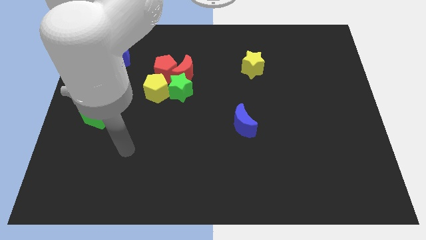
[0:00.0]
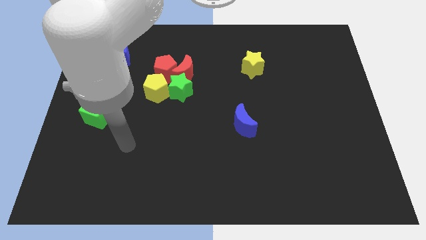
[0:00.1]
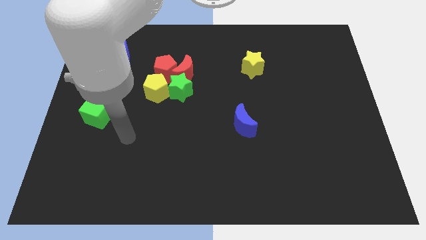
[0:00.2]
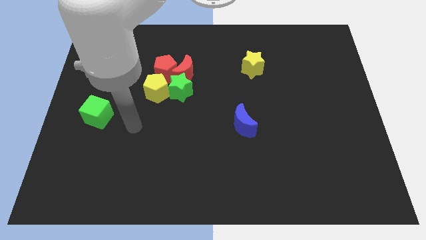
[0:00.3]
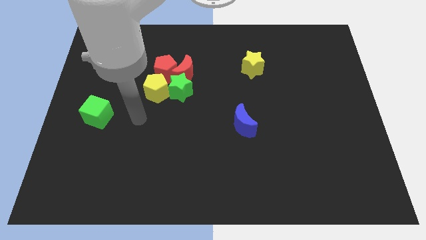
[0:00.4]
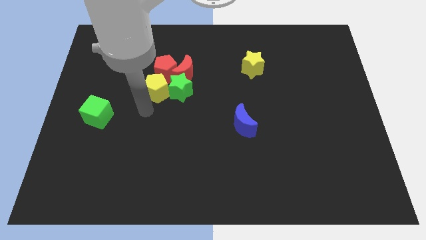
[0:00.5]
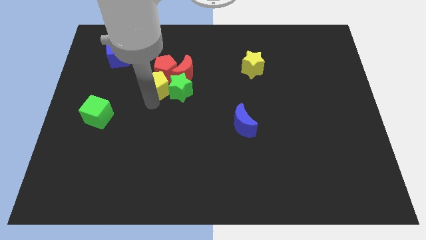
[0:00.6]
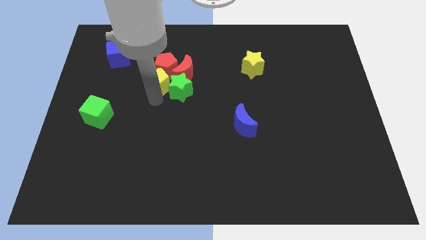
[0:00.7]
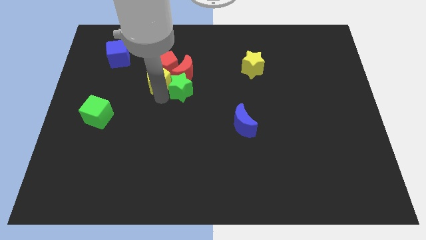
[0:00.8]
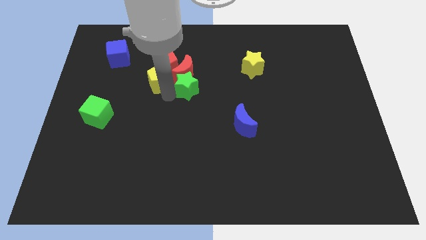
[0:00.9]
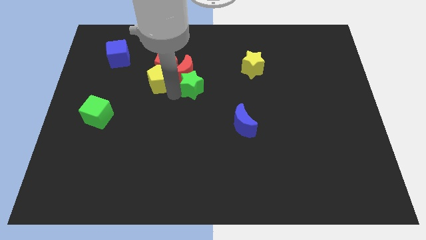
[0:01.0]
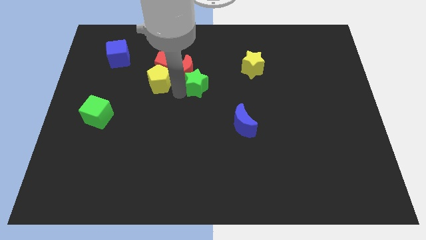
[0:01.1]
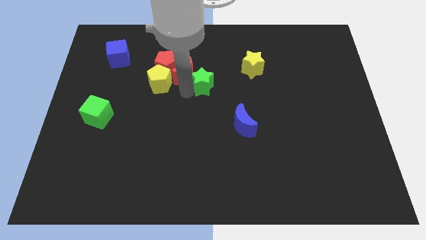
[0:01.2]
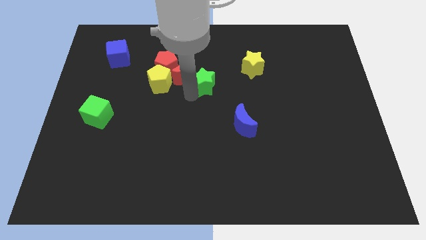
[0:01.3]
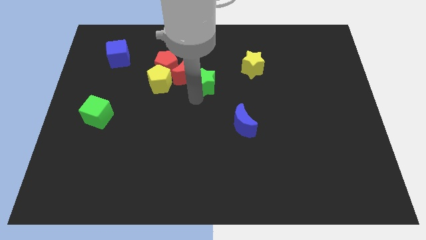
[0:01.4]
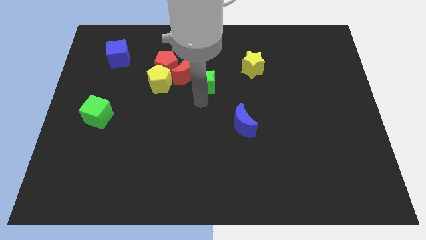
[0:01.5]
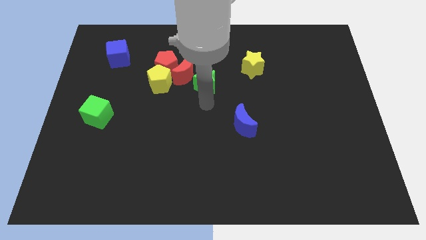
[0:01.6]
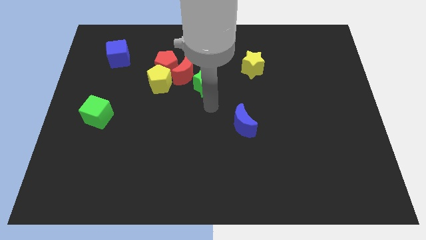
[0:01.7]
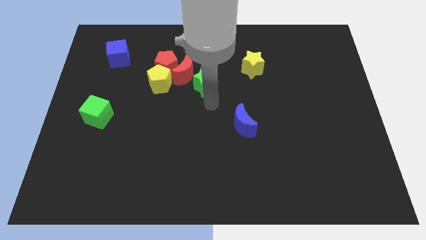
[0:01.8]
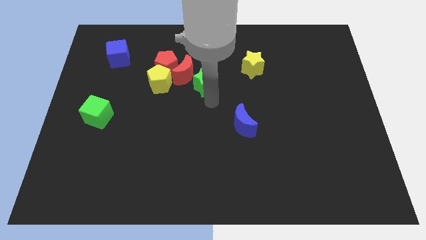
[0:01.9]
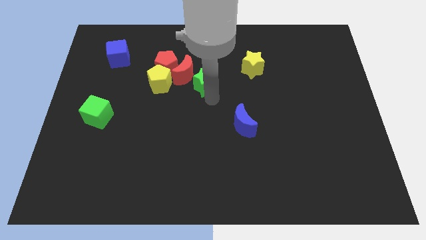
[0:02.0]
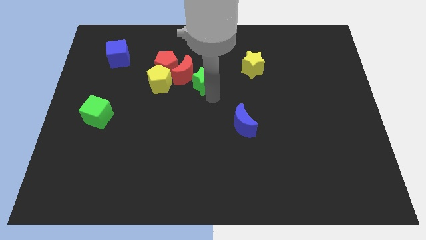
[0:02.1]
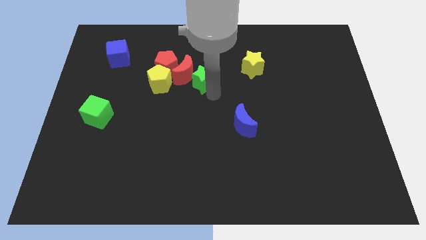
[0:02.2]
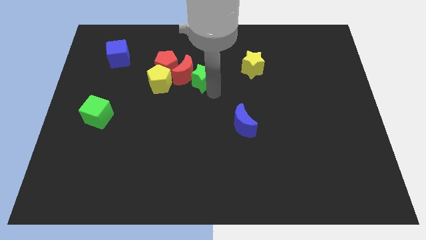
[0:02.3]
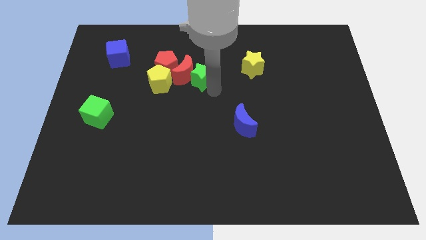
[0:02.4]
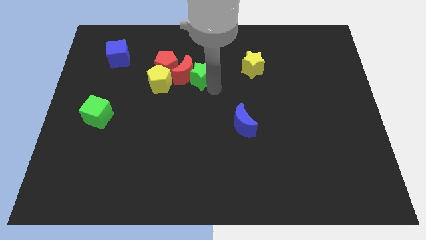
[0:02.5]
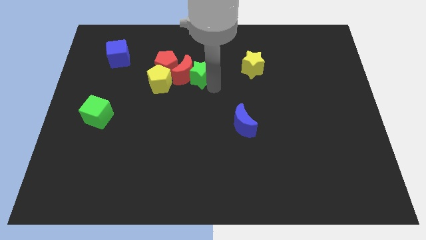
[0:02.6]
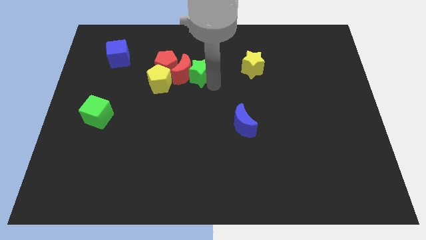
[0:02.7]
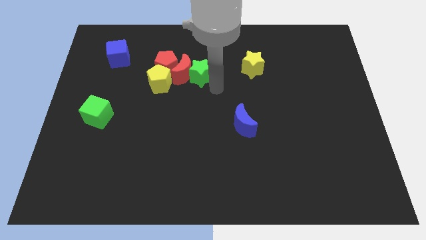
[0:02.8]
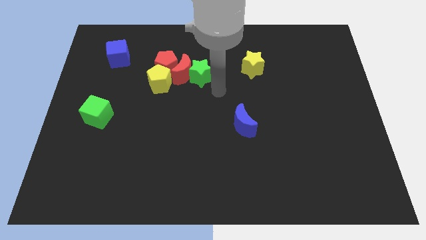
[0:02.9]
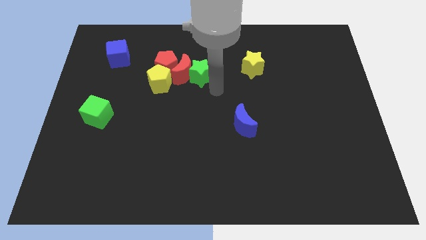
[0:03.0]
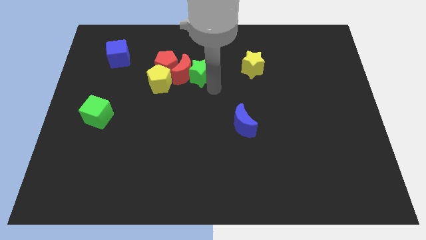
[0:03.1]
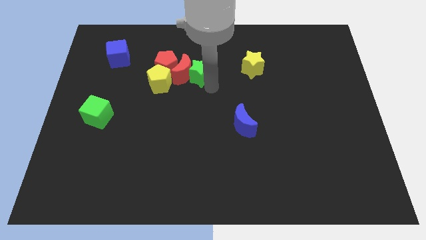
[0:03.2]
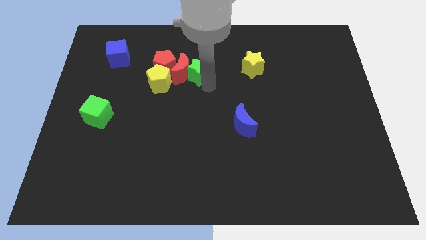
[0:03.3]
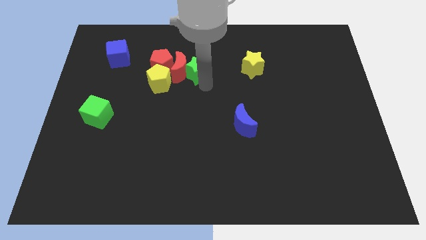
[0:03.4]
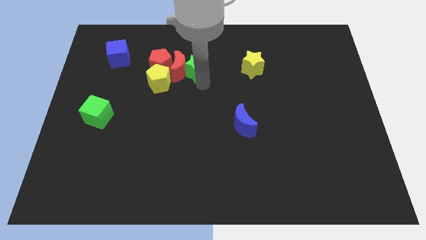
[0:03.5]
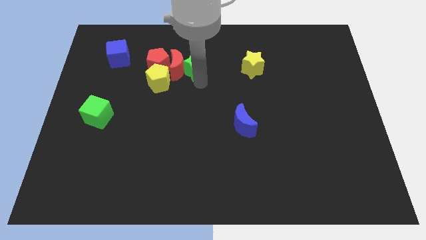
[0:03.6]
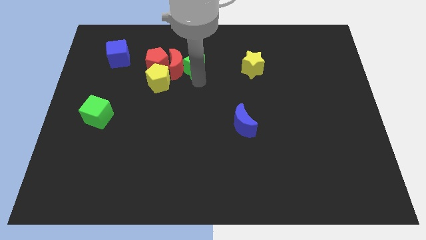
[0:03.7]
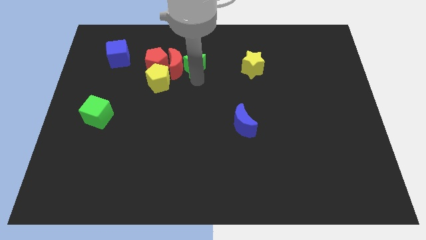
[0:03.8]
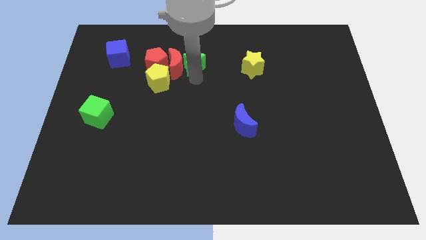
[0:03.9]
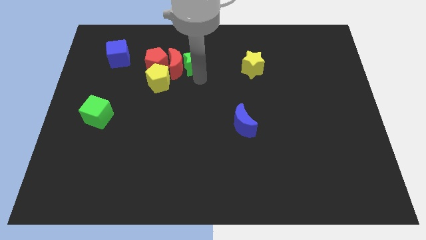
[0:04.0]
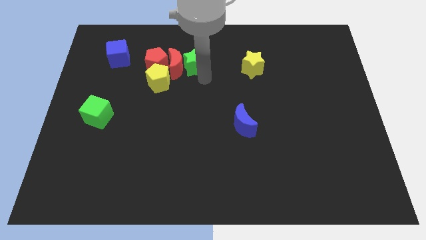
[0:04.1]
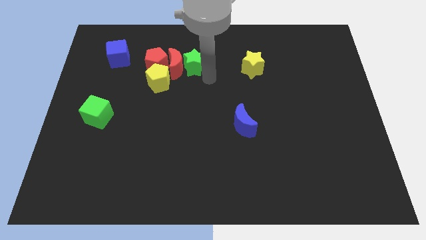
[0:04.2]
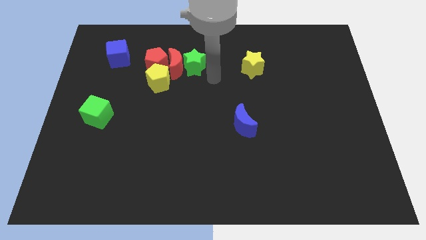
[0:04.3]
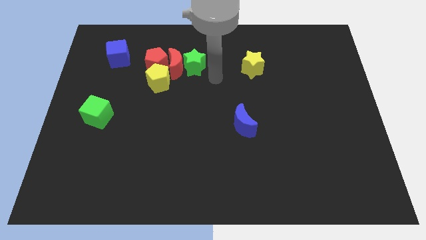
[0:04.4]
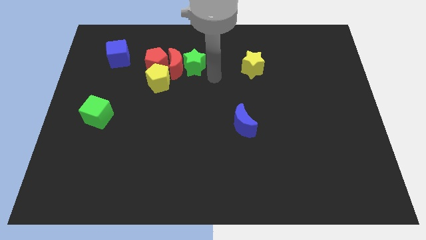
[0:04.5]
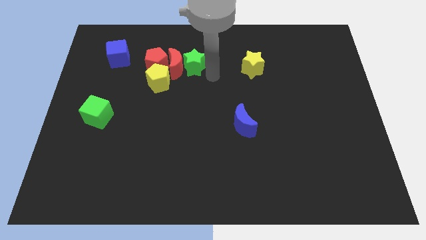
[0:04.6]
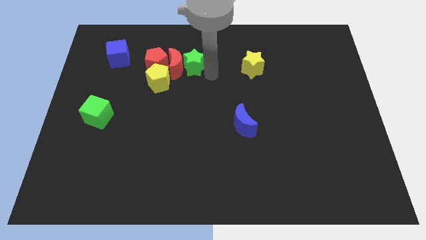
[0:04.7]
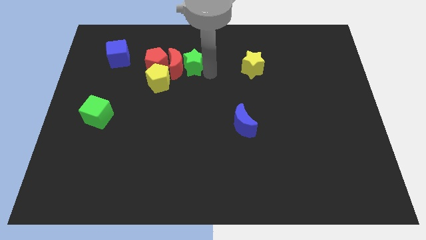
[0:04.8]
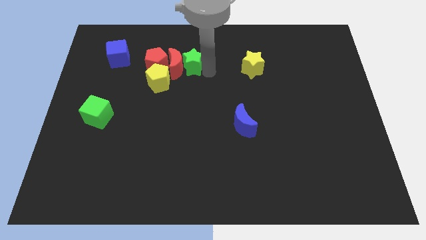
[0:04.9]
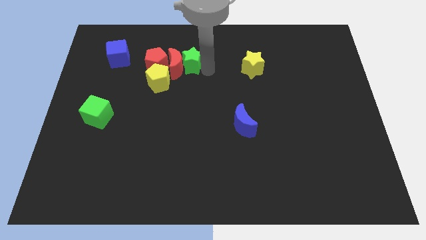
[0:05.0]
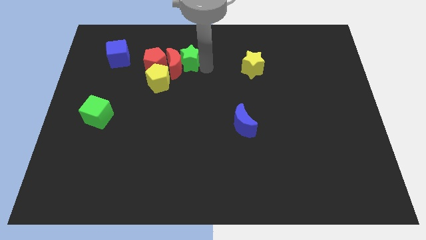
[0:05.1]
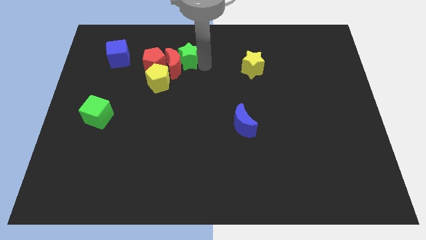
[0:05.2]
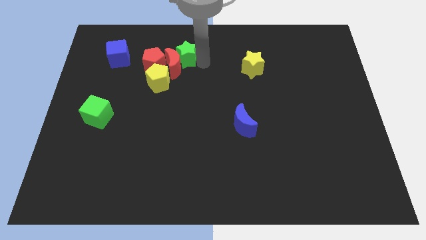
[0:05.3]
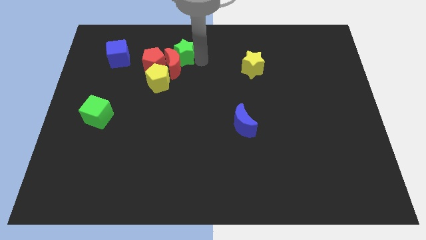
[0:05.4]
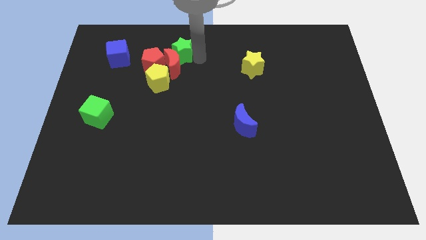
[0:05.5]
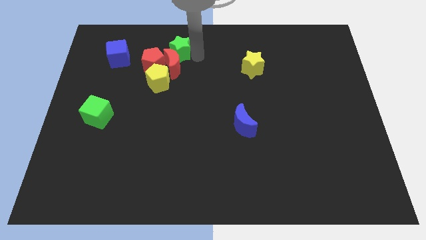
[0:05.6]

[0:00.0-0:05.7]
slide the green star to the top left of the red moon

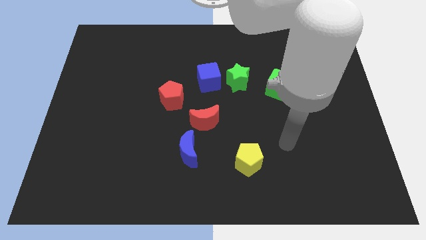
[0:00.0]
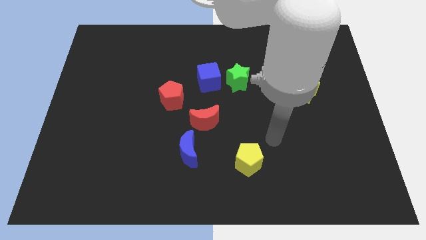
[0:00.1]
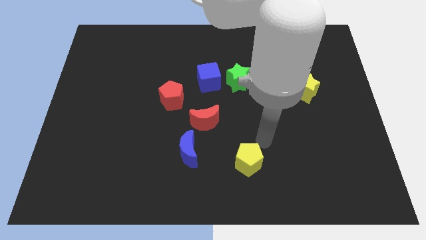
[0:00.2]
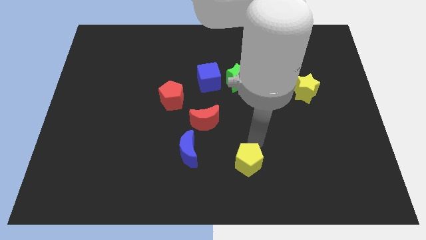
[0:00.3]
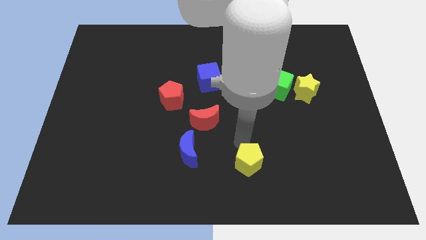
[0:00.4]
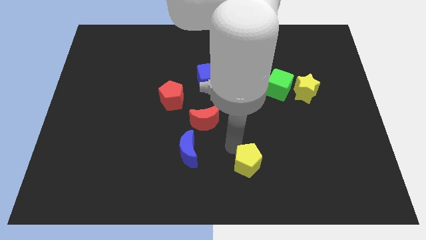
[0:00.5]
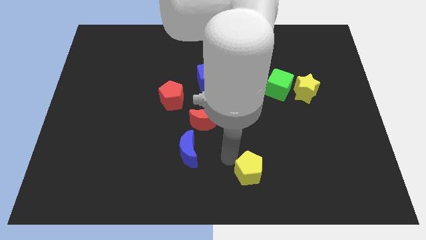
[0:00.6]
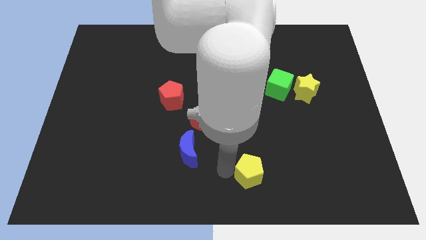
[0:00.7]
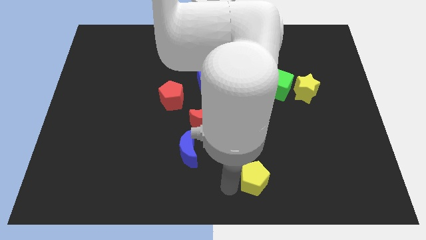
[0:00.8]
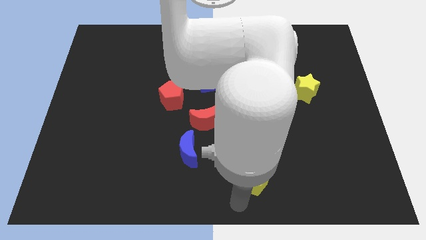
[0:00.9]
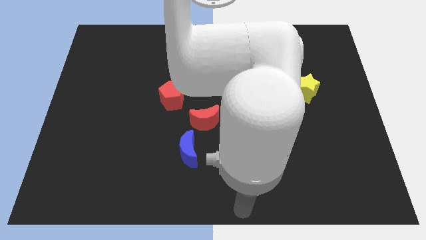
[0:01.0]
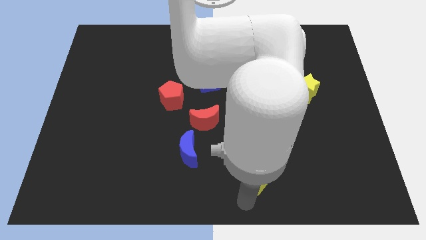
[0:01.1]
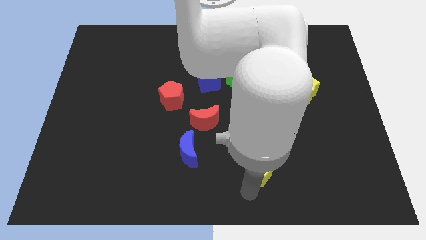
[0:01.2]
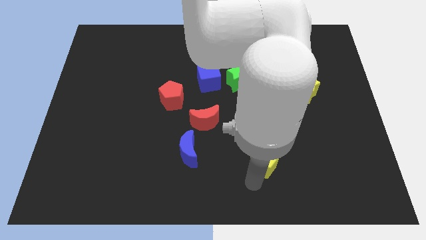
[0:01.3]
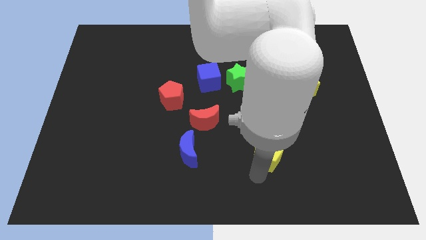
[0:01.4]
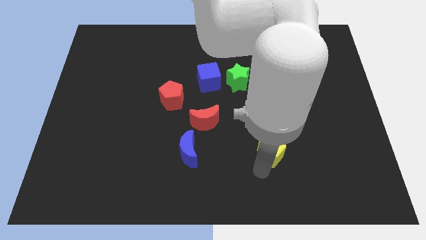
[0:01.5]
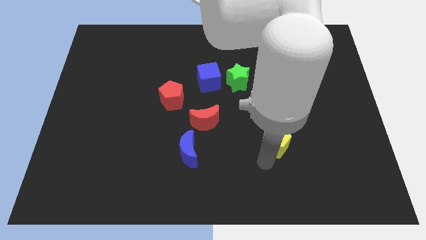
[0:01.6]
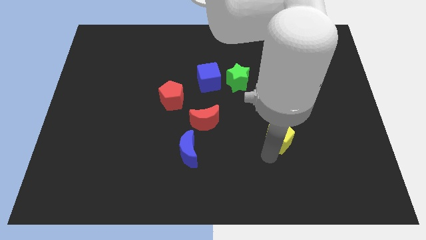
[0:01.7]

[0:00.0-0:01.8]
move the yellow pentagon to the bottom side of the green cube
